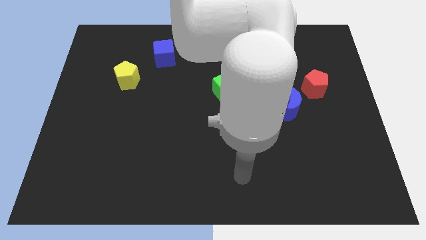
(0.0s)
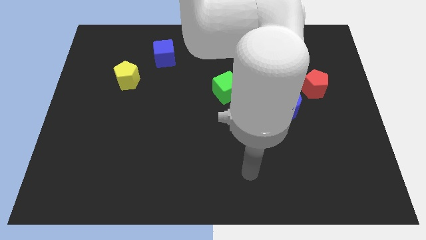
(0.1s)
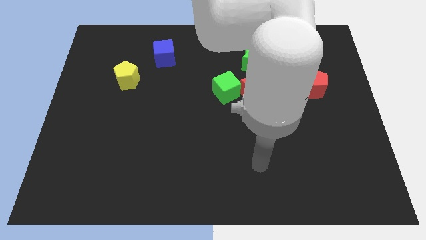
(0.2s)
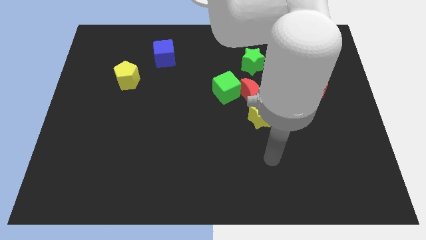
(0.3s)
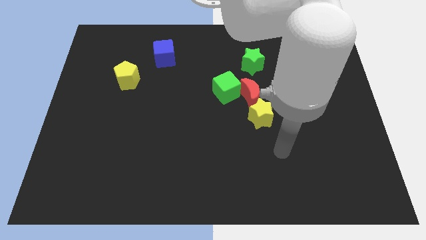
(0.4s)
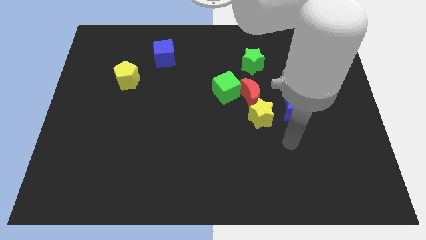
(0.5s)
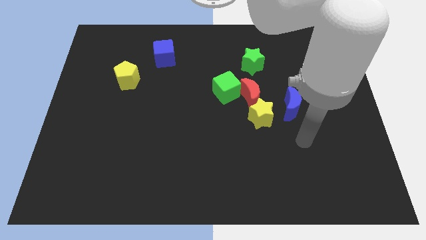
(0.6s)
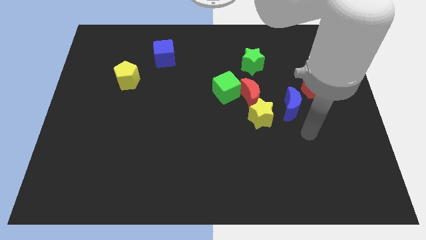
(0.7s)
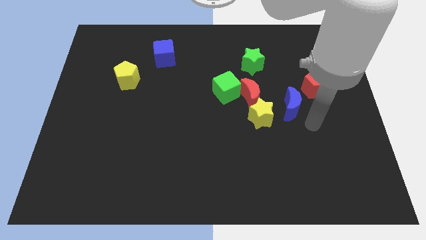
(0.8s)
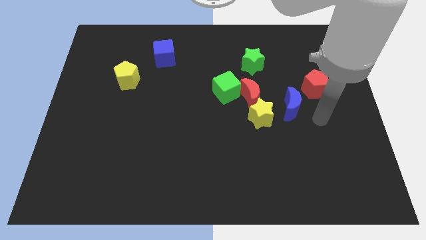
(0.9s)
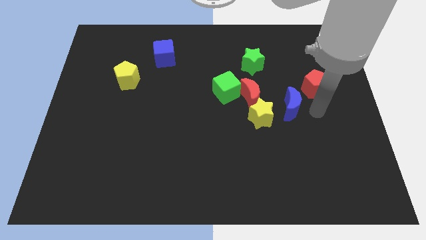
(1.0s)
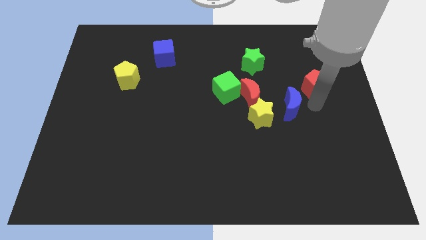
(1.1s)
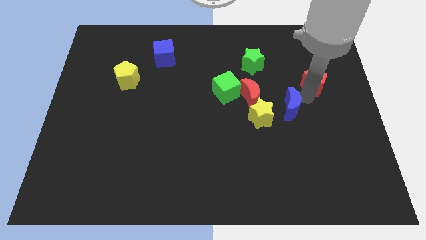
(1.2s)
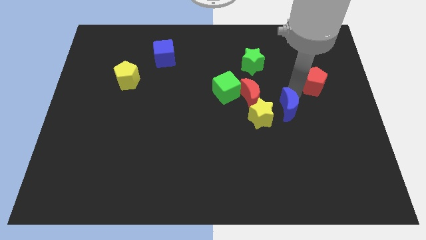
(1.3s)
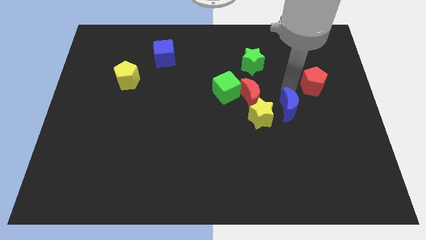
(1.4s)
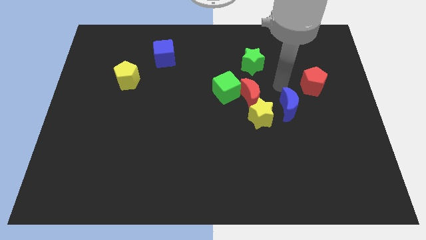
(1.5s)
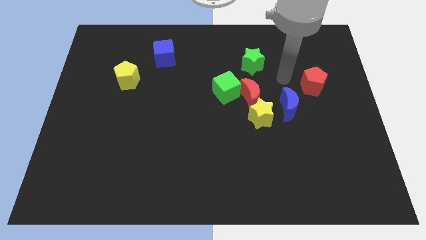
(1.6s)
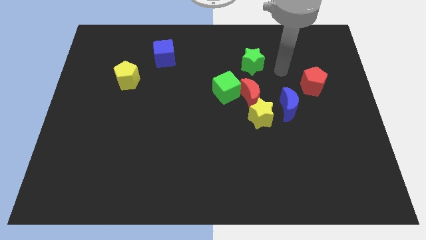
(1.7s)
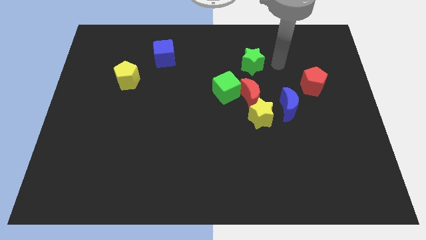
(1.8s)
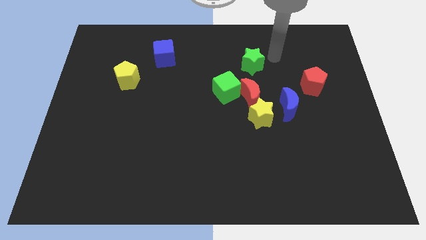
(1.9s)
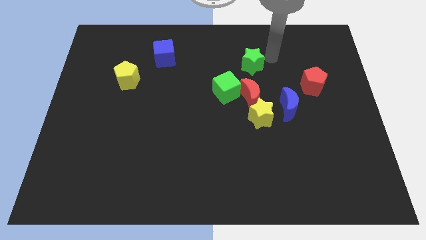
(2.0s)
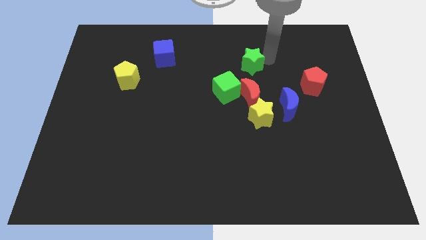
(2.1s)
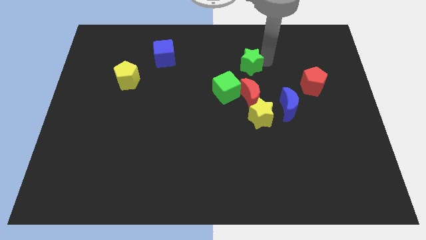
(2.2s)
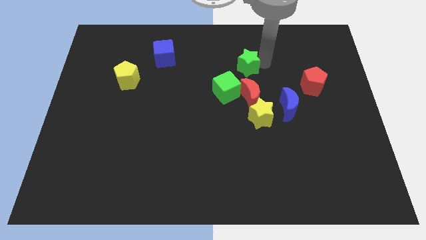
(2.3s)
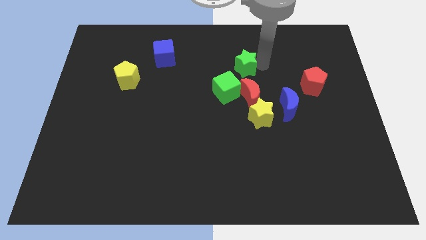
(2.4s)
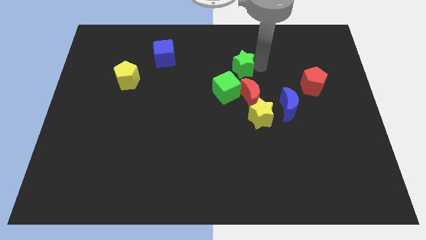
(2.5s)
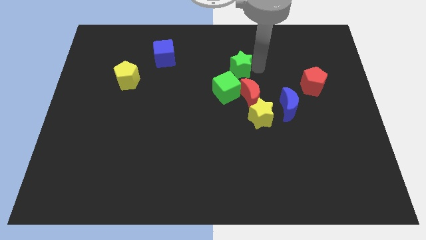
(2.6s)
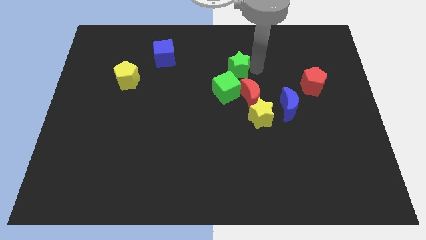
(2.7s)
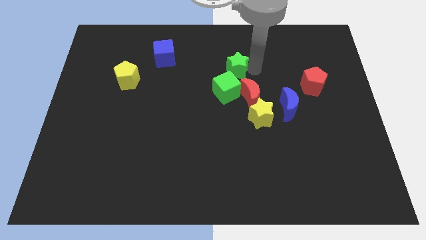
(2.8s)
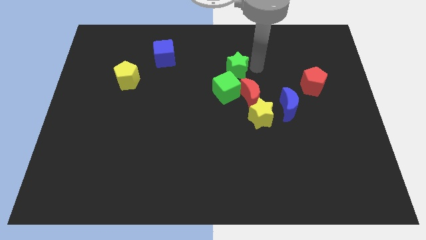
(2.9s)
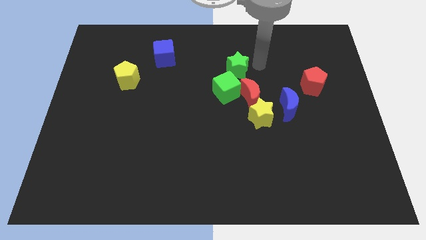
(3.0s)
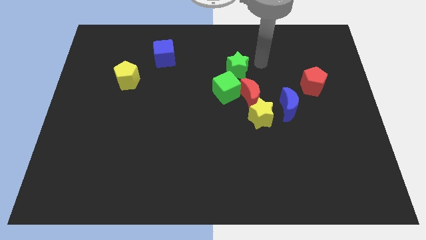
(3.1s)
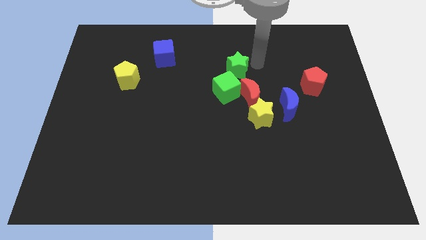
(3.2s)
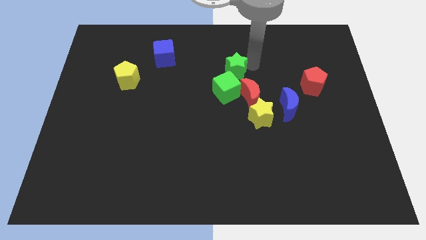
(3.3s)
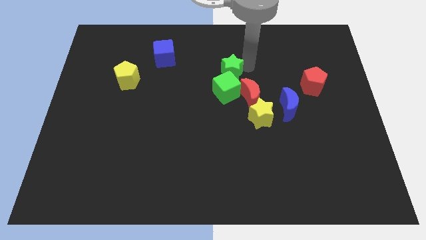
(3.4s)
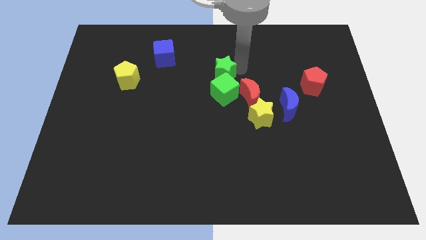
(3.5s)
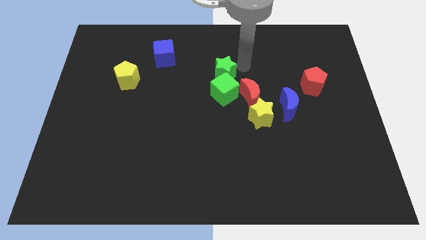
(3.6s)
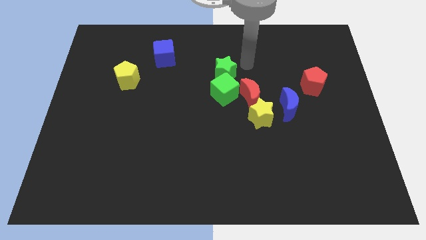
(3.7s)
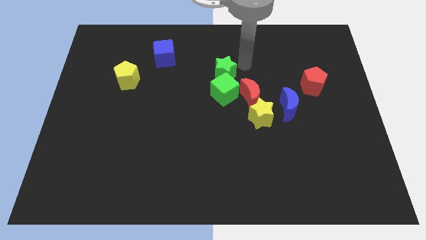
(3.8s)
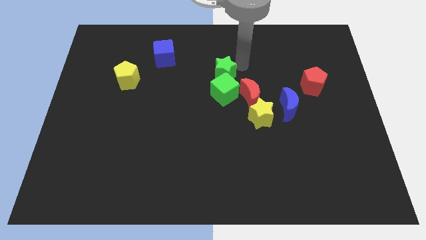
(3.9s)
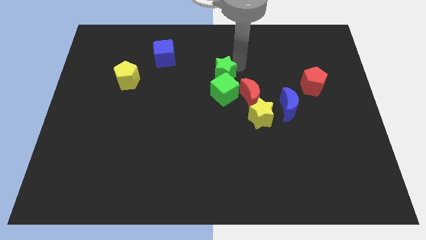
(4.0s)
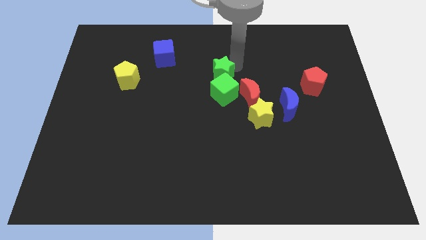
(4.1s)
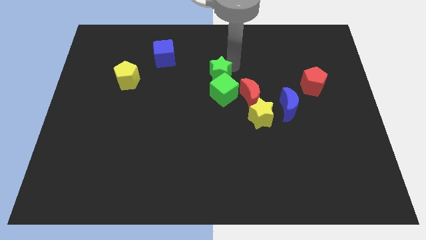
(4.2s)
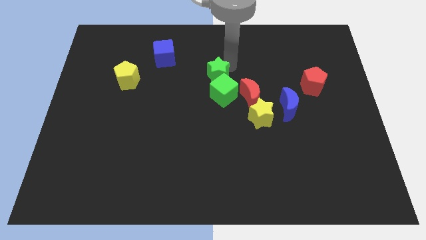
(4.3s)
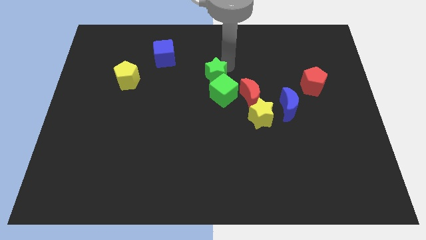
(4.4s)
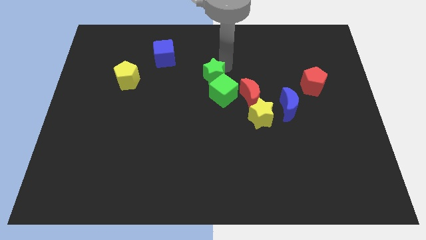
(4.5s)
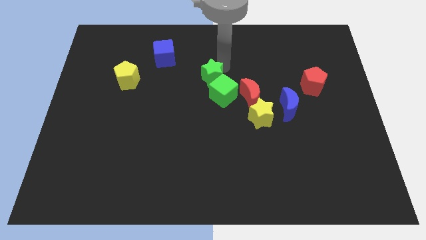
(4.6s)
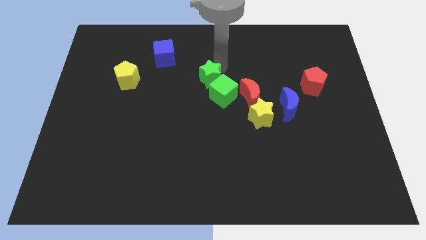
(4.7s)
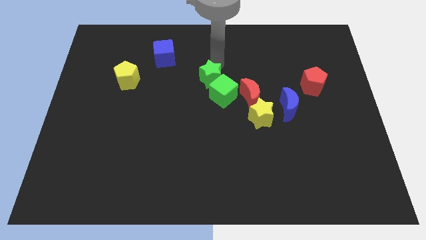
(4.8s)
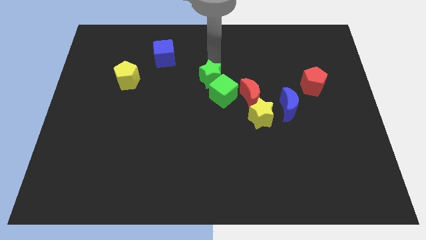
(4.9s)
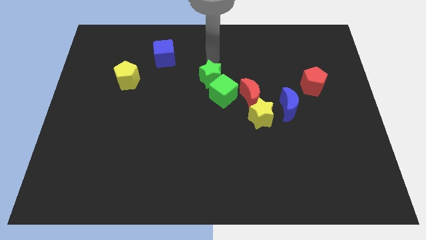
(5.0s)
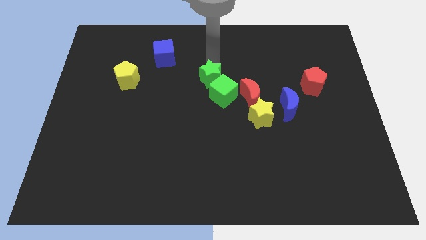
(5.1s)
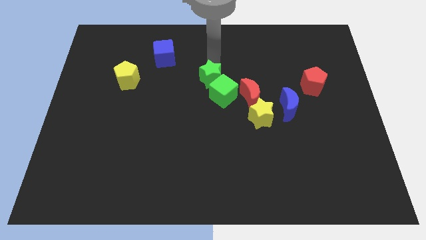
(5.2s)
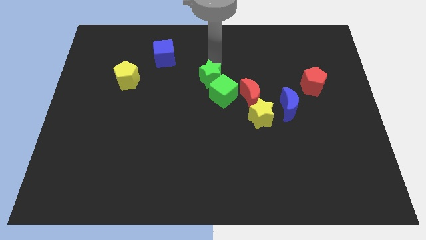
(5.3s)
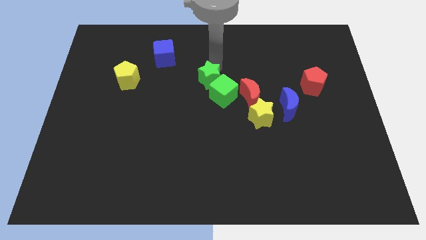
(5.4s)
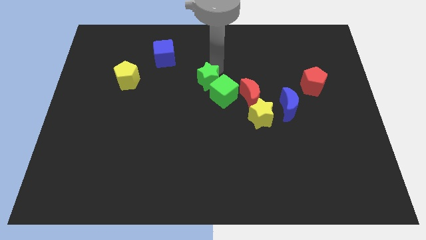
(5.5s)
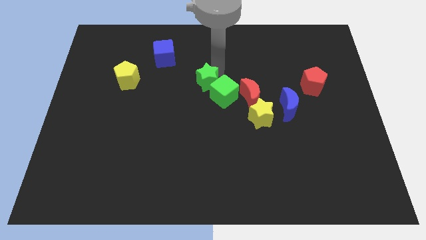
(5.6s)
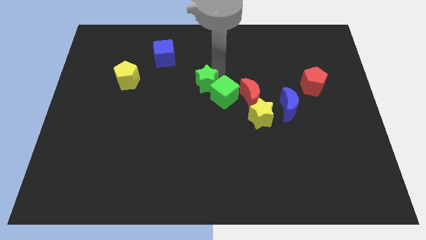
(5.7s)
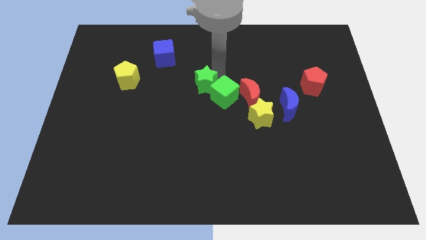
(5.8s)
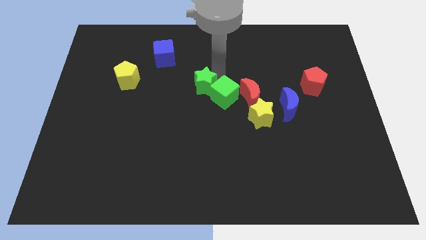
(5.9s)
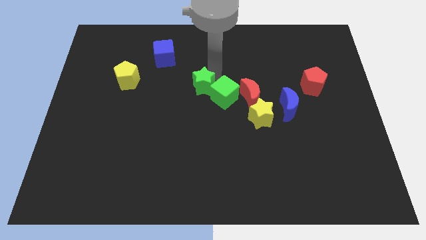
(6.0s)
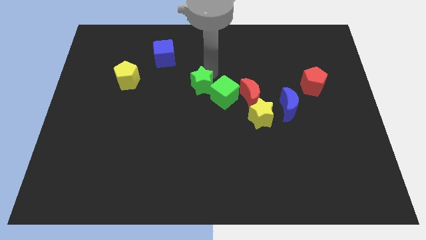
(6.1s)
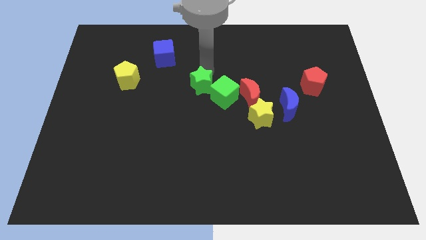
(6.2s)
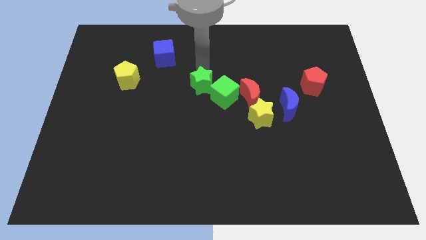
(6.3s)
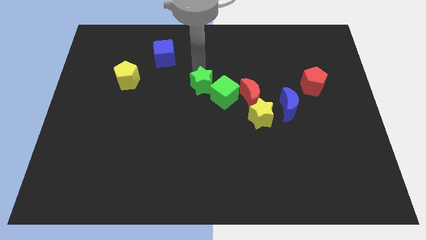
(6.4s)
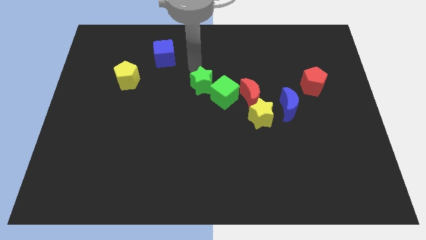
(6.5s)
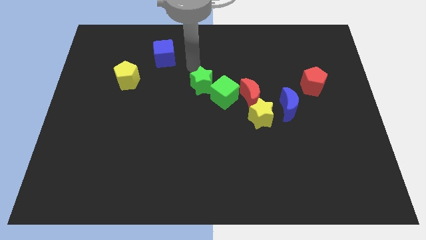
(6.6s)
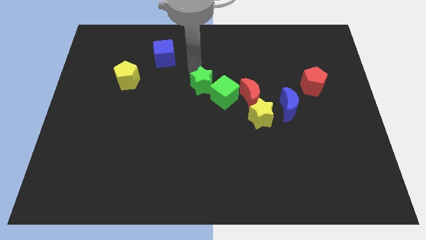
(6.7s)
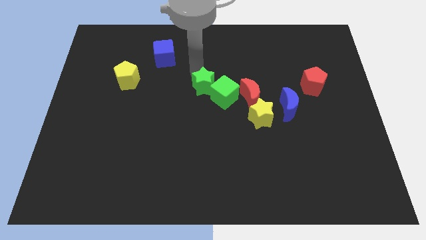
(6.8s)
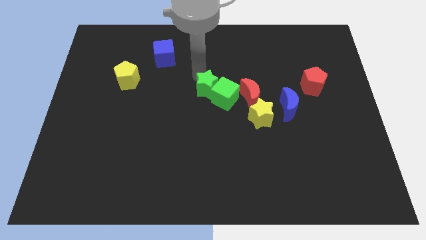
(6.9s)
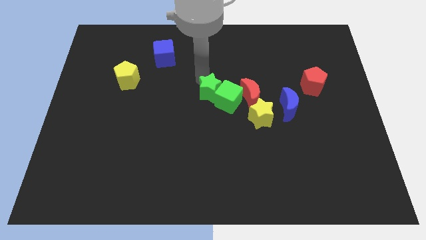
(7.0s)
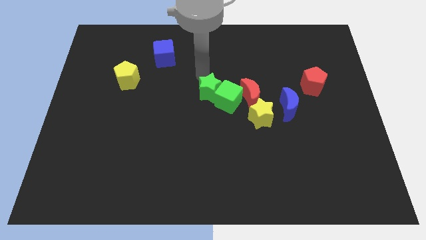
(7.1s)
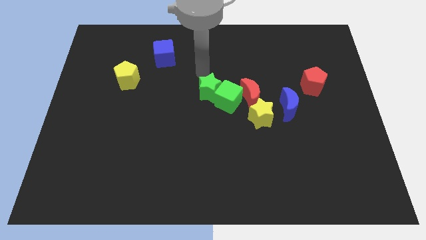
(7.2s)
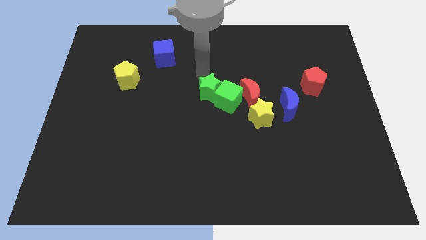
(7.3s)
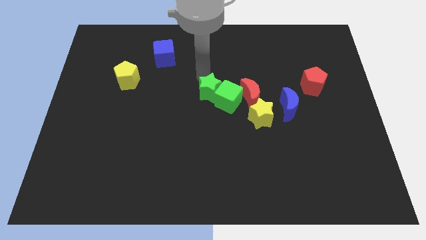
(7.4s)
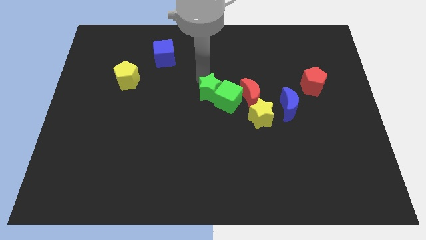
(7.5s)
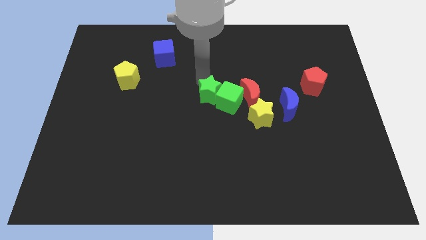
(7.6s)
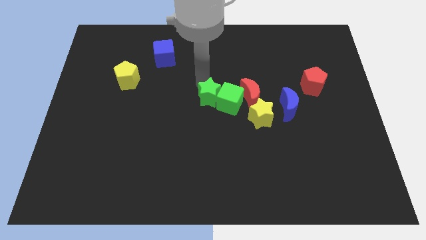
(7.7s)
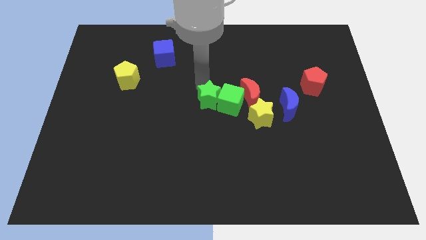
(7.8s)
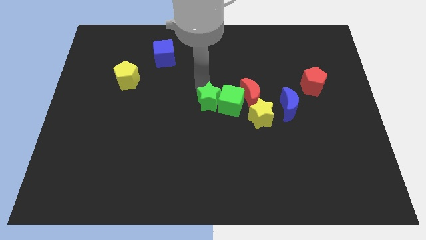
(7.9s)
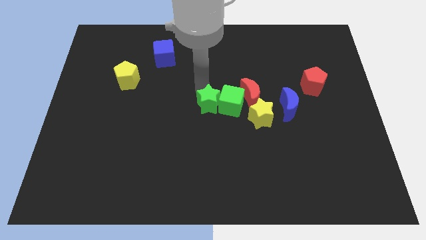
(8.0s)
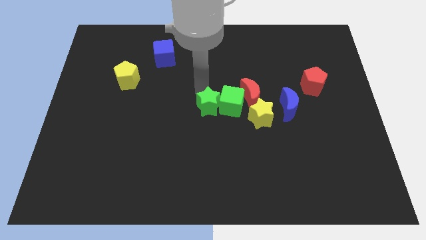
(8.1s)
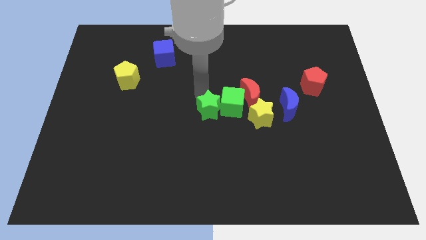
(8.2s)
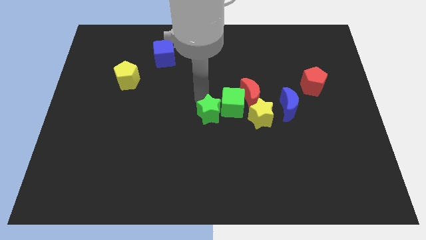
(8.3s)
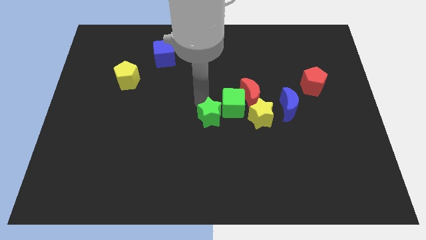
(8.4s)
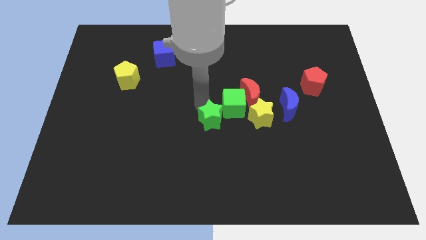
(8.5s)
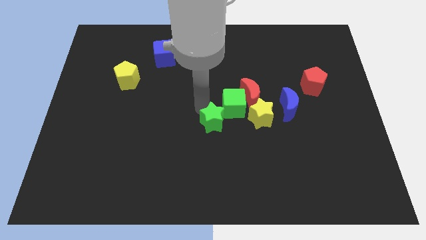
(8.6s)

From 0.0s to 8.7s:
push the green star to the bottom side of the green cube
